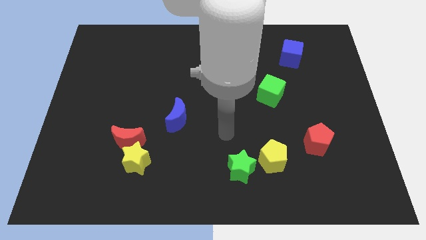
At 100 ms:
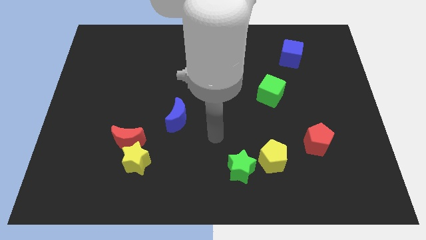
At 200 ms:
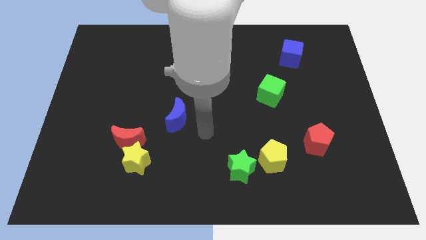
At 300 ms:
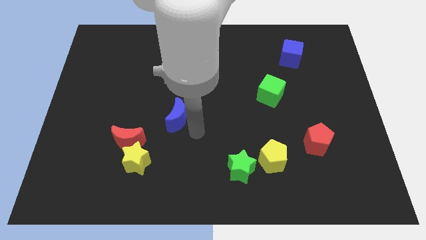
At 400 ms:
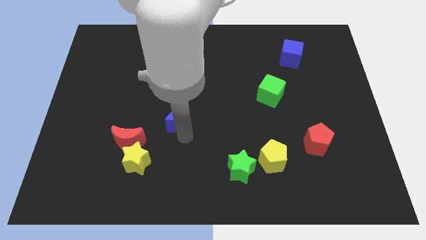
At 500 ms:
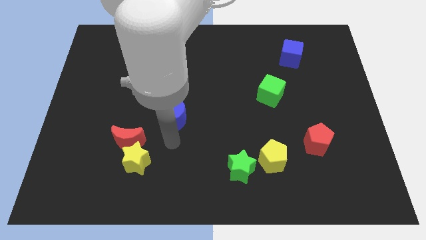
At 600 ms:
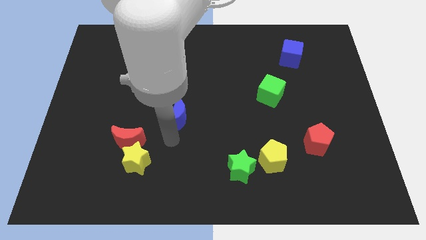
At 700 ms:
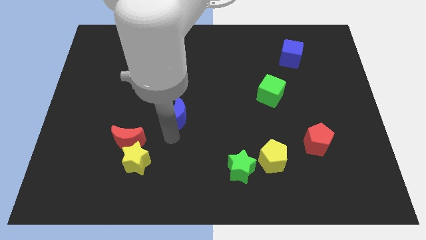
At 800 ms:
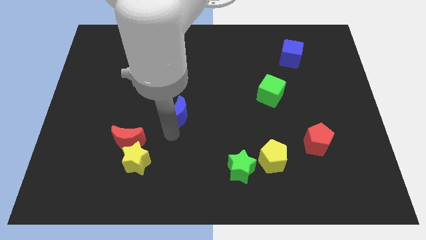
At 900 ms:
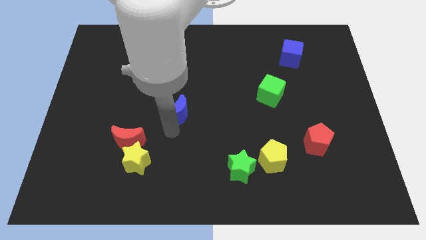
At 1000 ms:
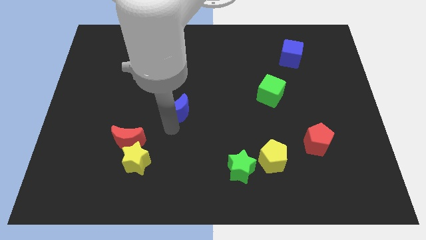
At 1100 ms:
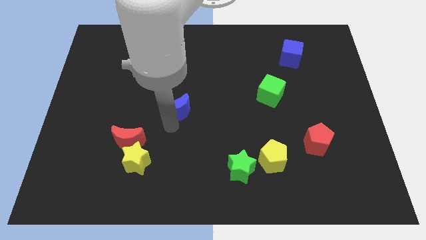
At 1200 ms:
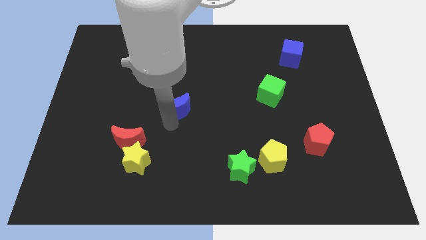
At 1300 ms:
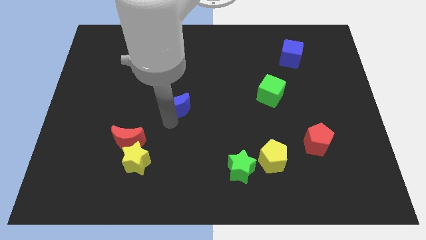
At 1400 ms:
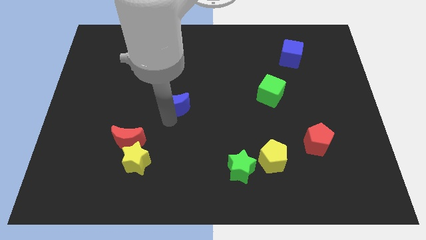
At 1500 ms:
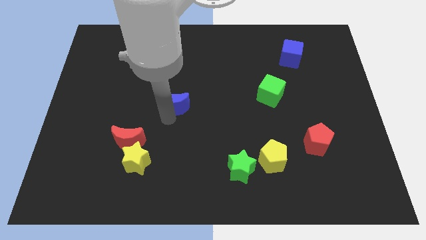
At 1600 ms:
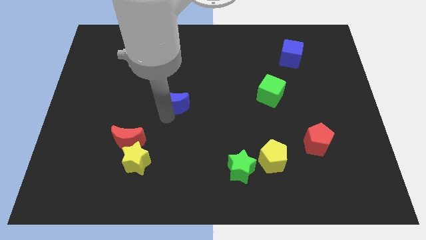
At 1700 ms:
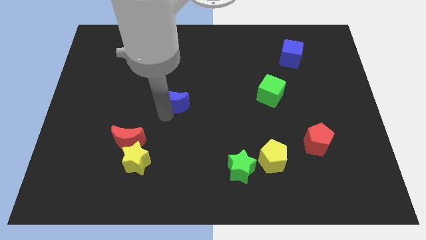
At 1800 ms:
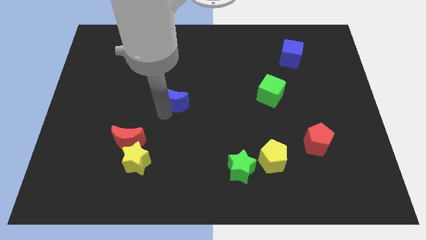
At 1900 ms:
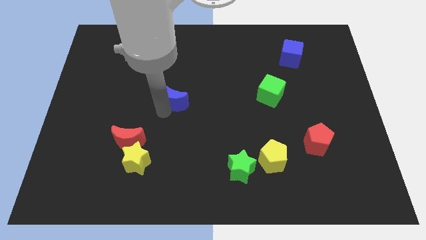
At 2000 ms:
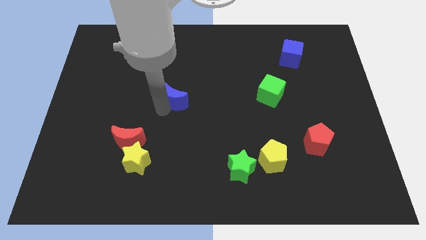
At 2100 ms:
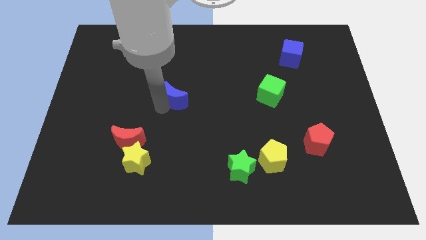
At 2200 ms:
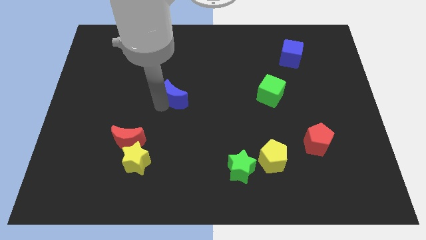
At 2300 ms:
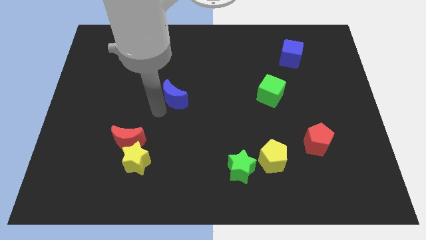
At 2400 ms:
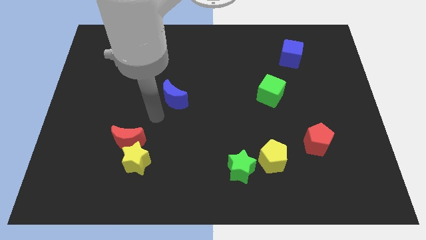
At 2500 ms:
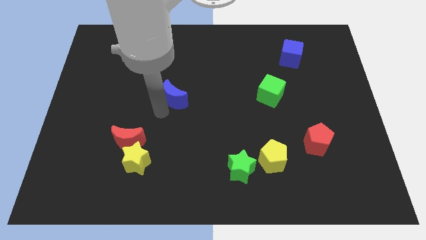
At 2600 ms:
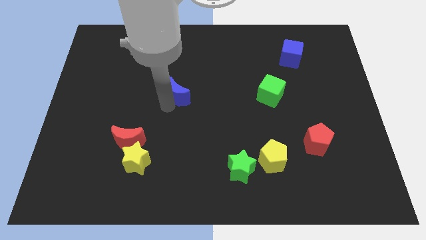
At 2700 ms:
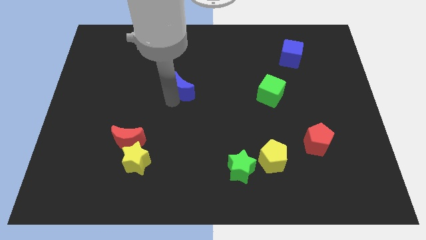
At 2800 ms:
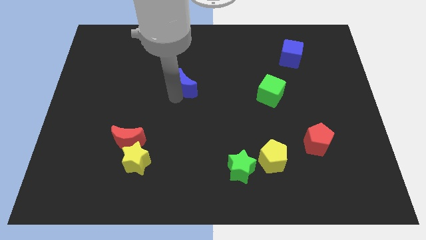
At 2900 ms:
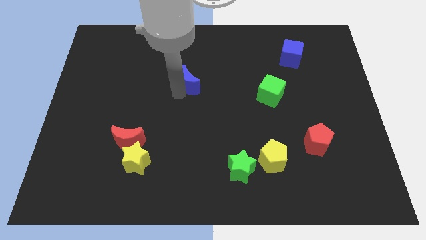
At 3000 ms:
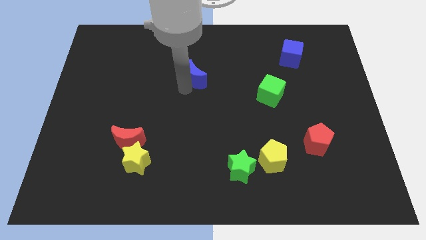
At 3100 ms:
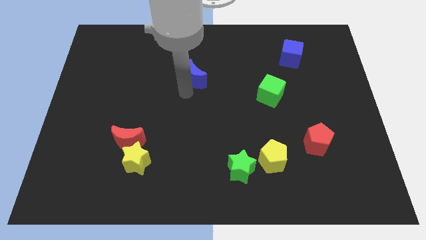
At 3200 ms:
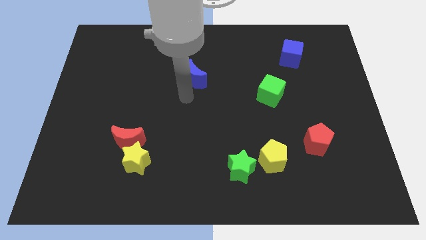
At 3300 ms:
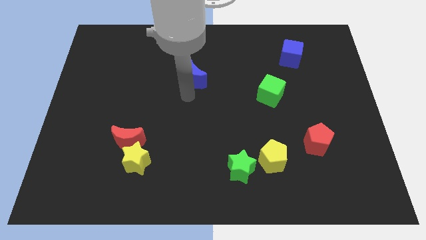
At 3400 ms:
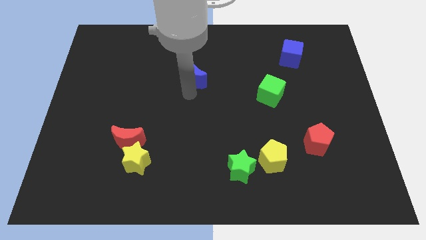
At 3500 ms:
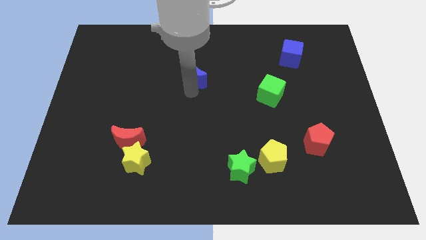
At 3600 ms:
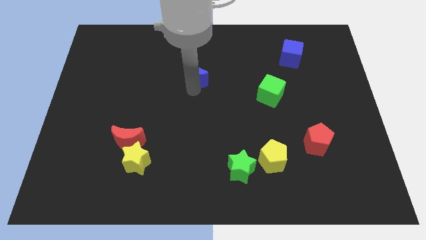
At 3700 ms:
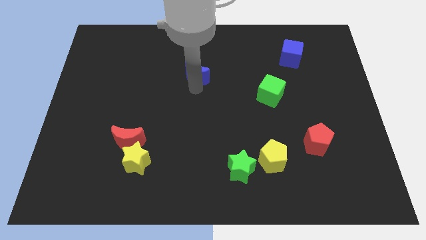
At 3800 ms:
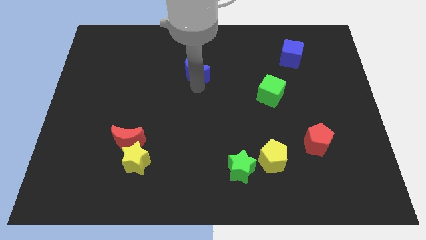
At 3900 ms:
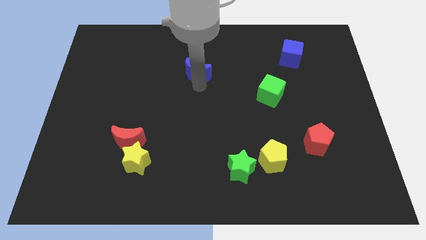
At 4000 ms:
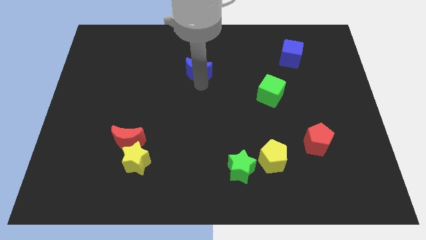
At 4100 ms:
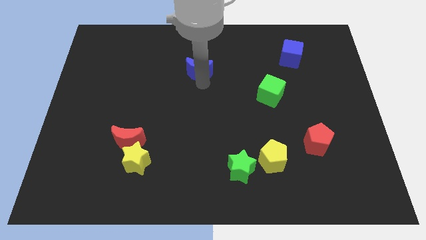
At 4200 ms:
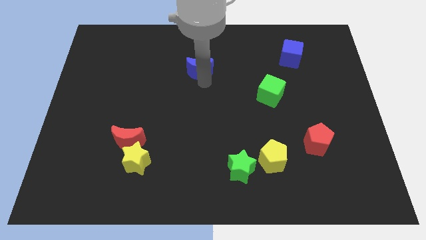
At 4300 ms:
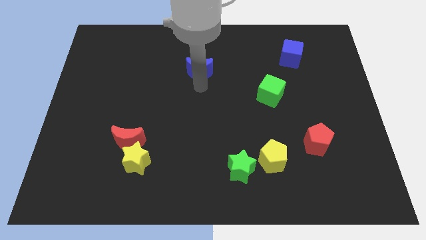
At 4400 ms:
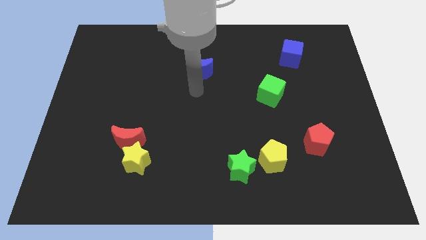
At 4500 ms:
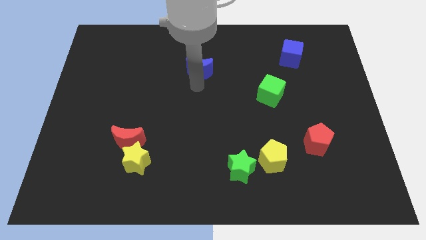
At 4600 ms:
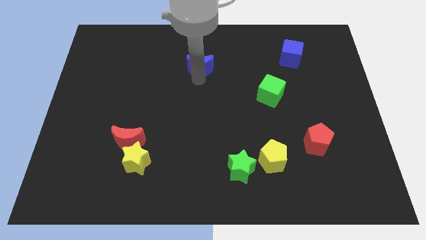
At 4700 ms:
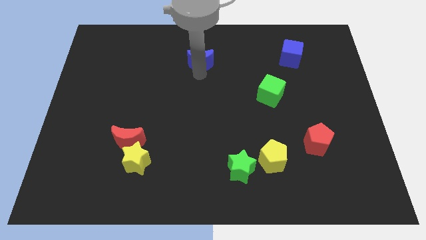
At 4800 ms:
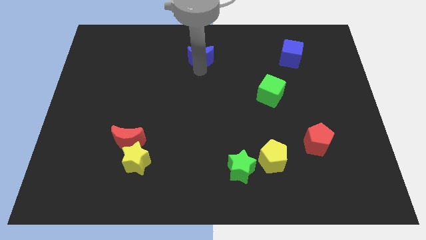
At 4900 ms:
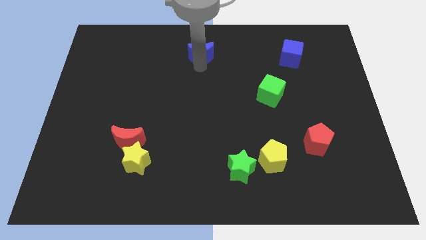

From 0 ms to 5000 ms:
slide the blue moon to the top

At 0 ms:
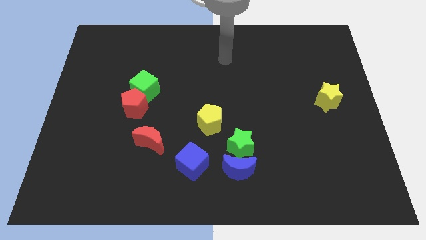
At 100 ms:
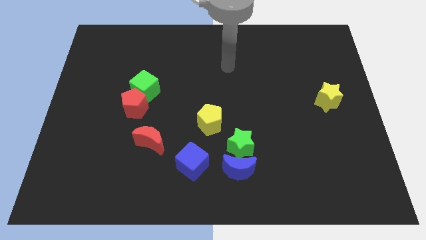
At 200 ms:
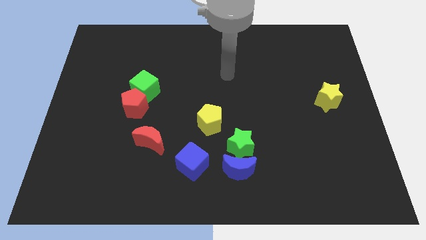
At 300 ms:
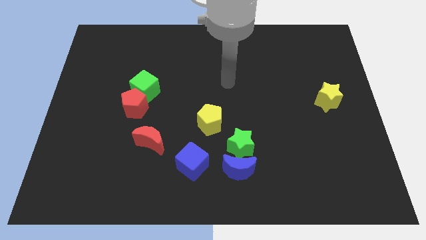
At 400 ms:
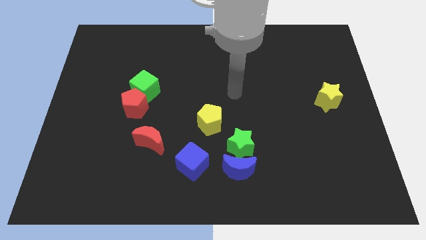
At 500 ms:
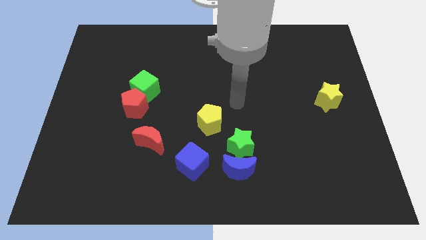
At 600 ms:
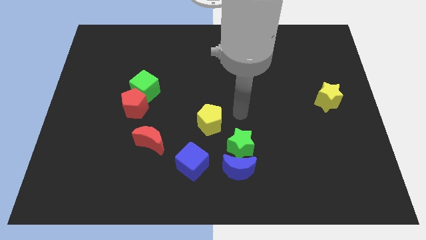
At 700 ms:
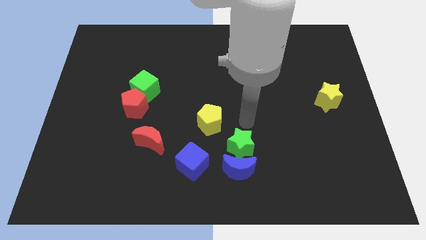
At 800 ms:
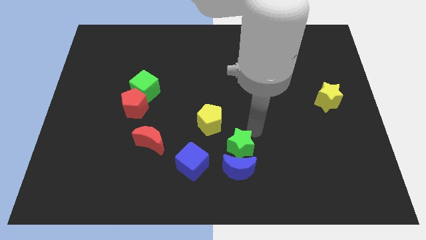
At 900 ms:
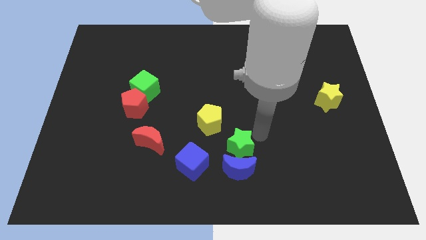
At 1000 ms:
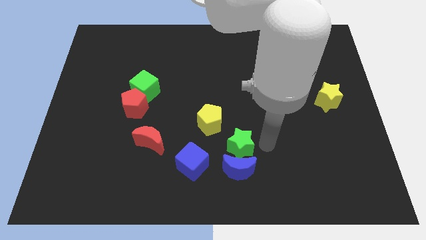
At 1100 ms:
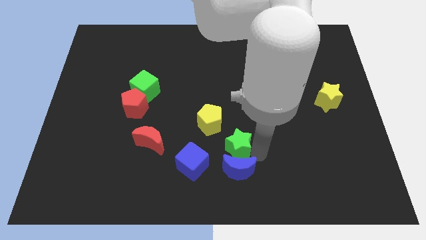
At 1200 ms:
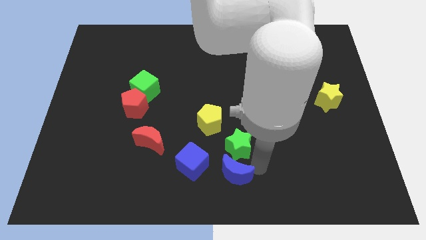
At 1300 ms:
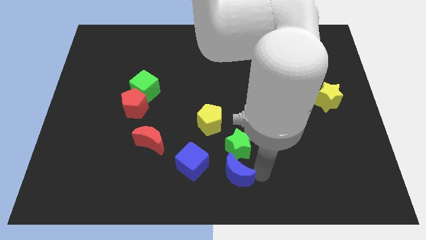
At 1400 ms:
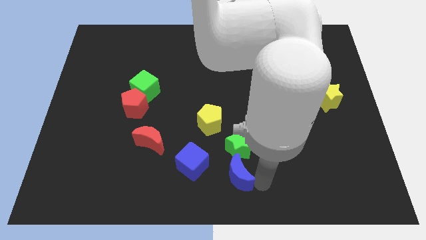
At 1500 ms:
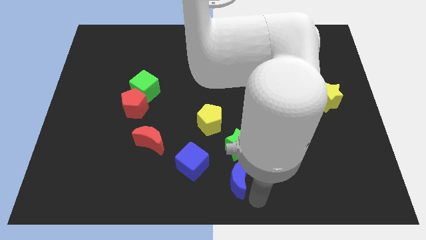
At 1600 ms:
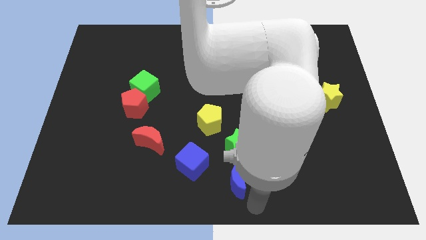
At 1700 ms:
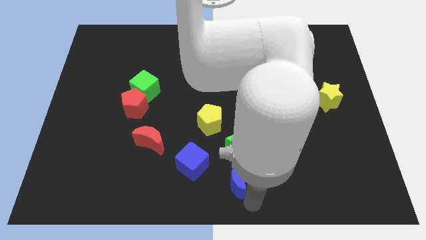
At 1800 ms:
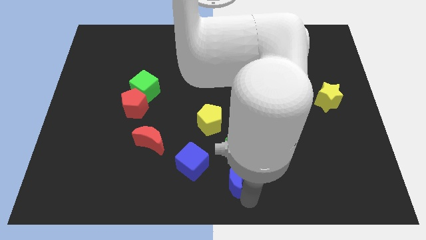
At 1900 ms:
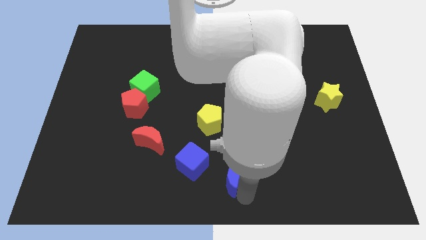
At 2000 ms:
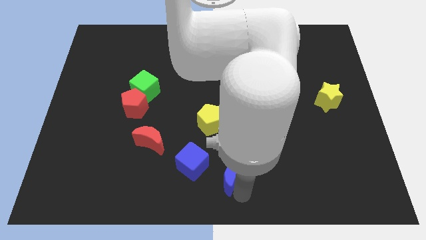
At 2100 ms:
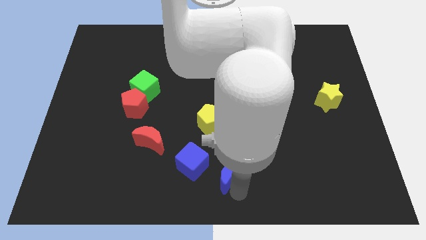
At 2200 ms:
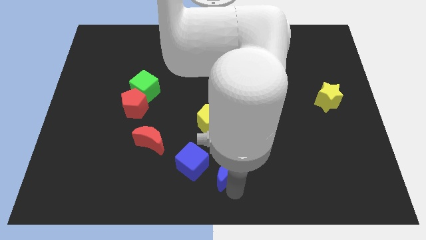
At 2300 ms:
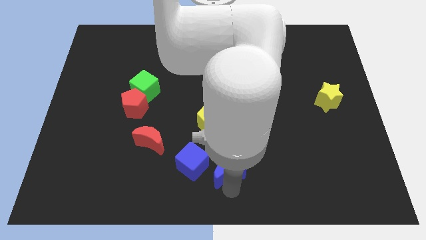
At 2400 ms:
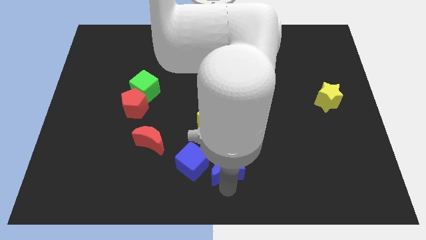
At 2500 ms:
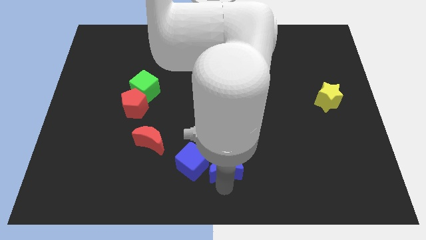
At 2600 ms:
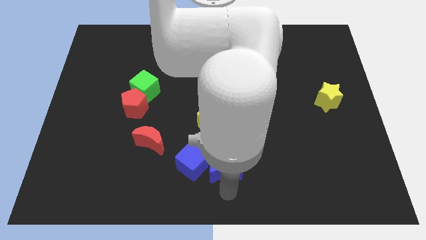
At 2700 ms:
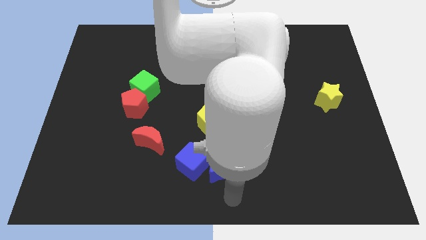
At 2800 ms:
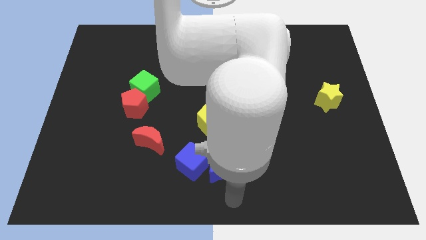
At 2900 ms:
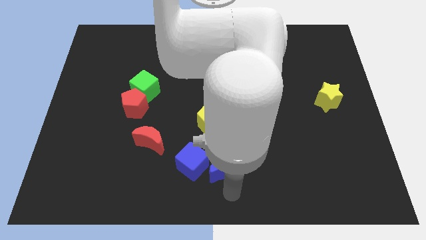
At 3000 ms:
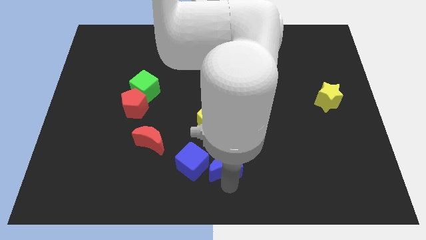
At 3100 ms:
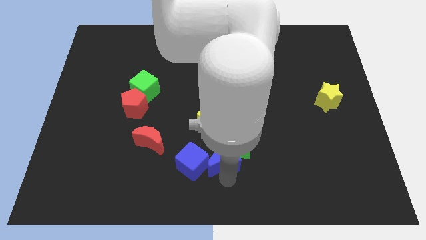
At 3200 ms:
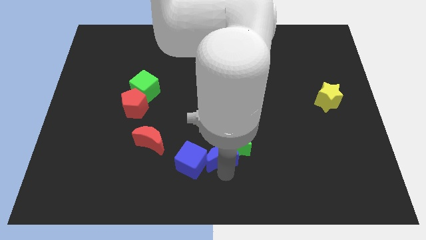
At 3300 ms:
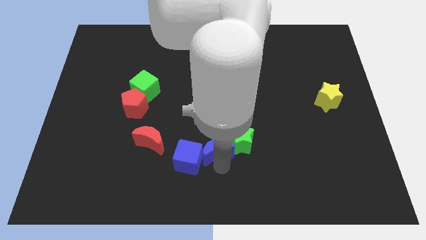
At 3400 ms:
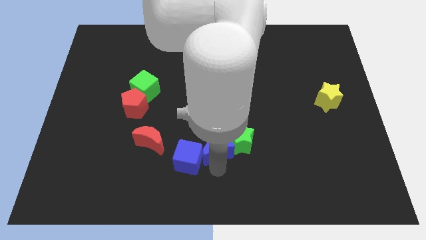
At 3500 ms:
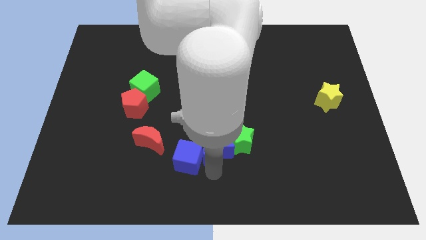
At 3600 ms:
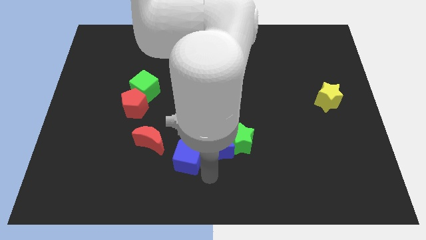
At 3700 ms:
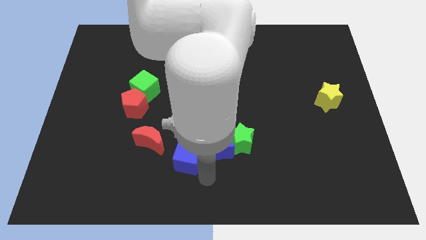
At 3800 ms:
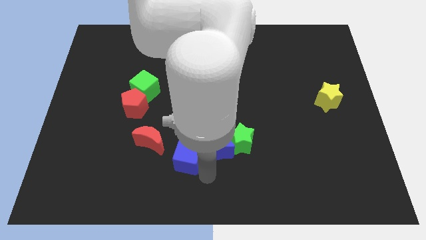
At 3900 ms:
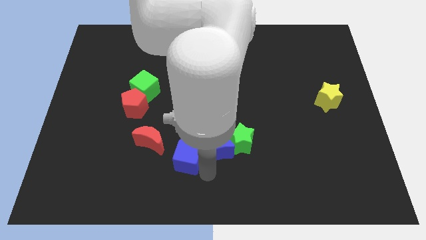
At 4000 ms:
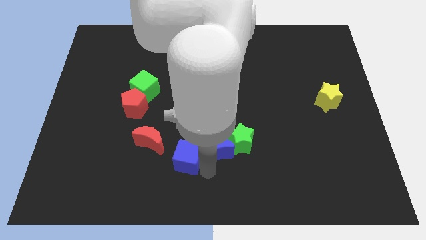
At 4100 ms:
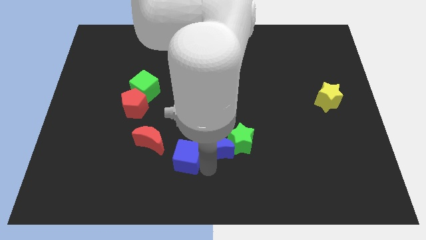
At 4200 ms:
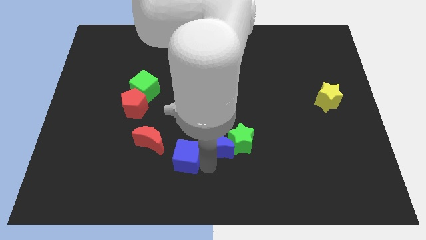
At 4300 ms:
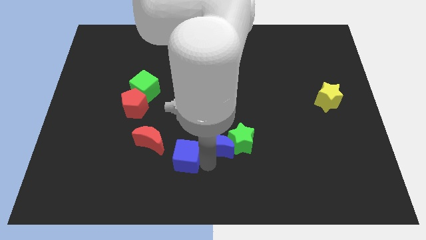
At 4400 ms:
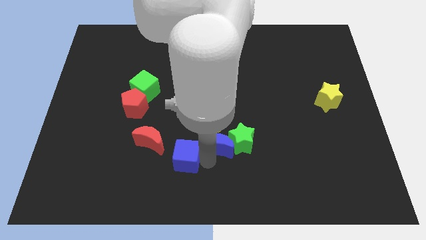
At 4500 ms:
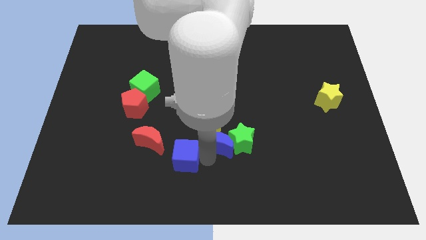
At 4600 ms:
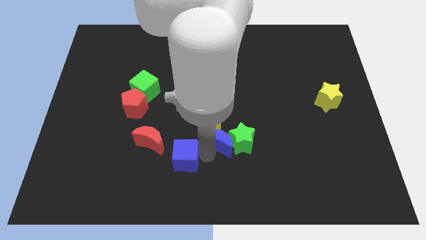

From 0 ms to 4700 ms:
slide the blue moon to the center of the board
